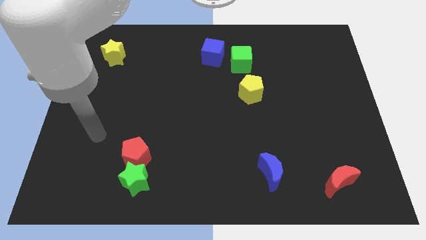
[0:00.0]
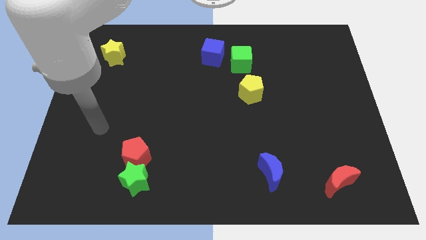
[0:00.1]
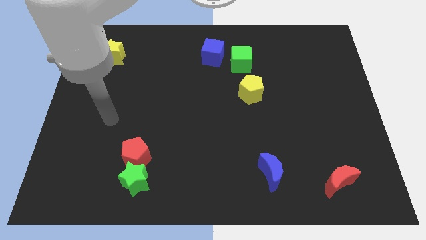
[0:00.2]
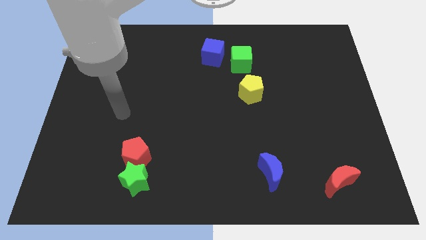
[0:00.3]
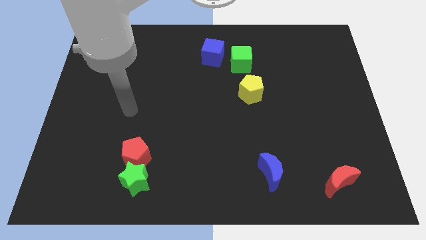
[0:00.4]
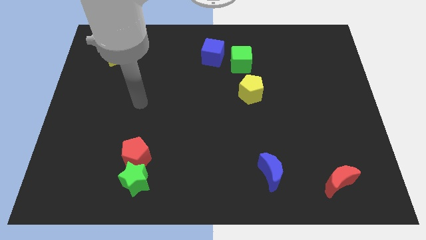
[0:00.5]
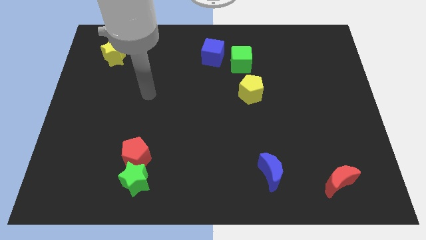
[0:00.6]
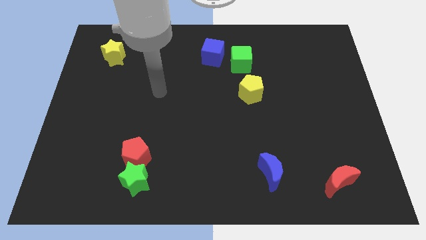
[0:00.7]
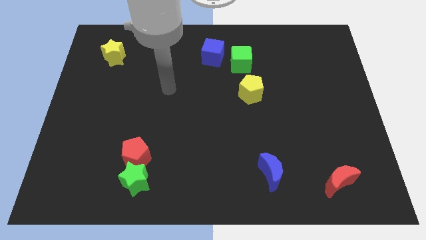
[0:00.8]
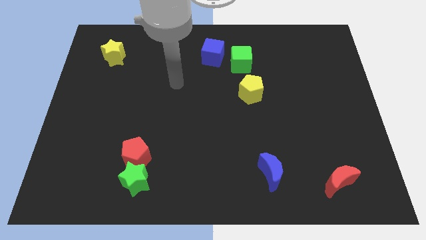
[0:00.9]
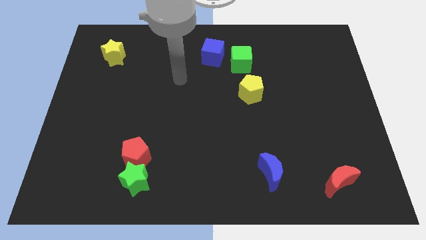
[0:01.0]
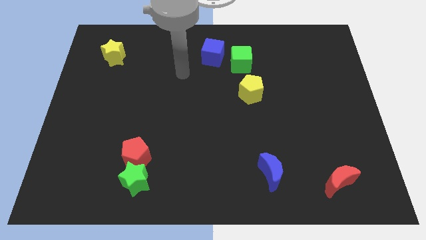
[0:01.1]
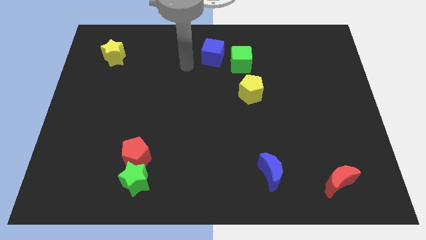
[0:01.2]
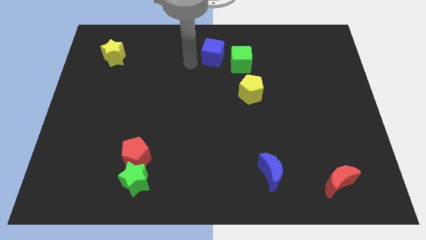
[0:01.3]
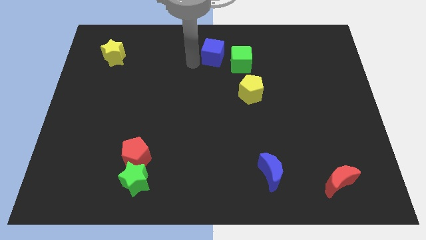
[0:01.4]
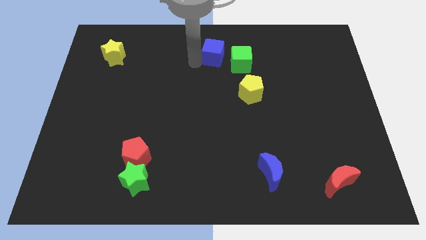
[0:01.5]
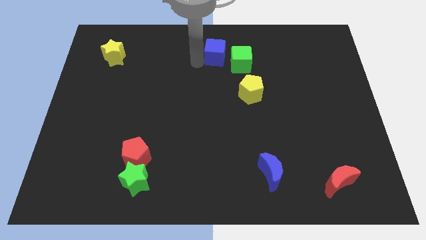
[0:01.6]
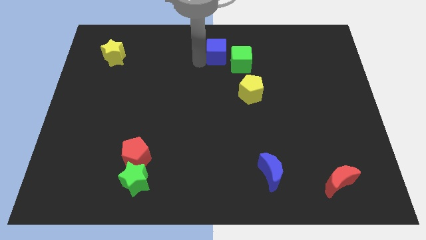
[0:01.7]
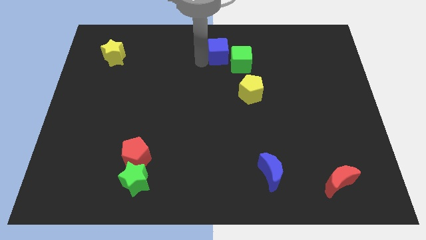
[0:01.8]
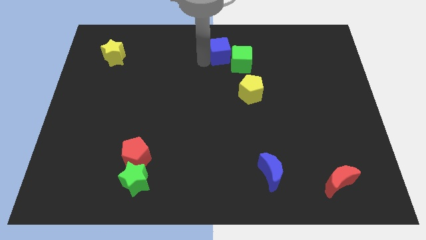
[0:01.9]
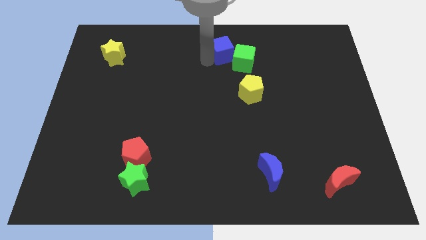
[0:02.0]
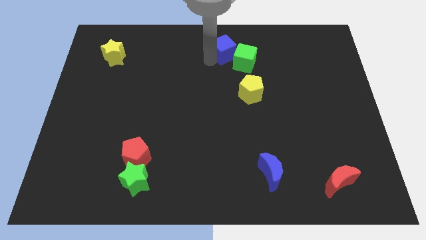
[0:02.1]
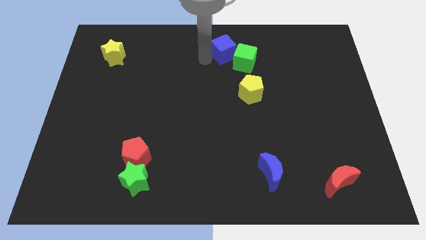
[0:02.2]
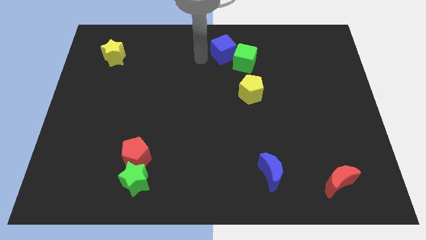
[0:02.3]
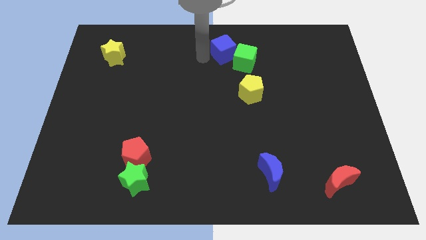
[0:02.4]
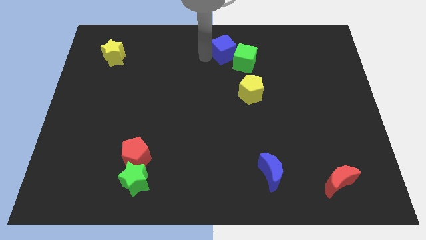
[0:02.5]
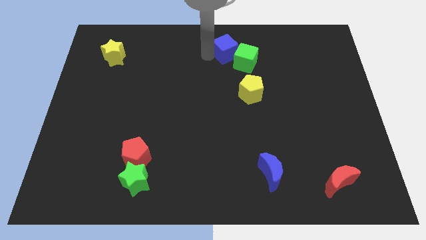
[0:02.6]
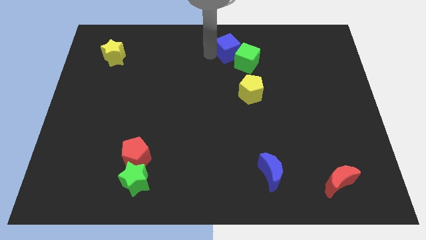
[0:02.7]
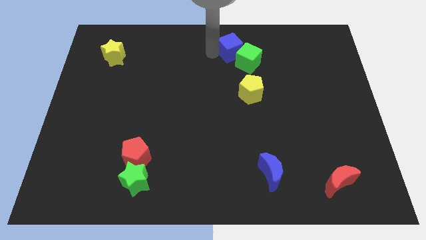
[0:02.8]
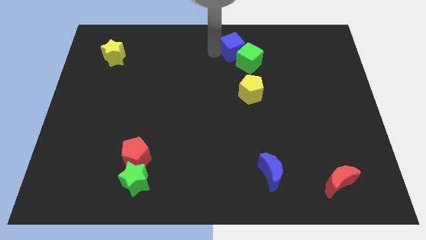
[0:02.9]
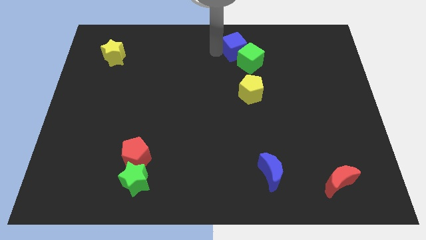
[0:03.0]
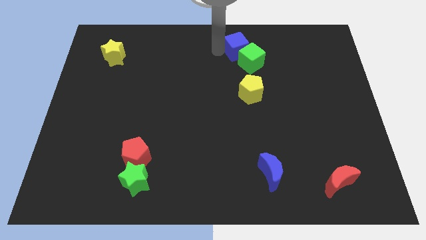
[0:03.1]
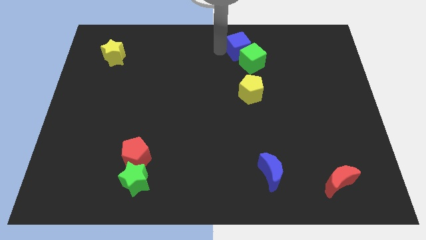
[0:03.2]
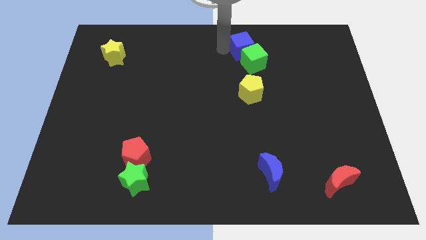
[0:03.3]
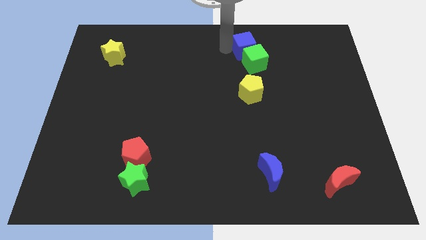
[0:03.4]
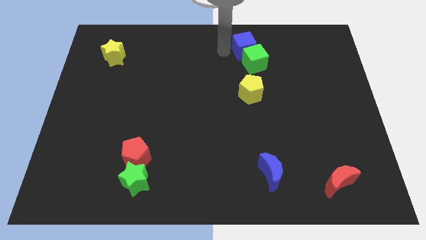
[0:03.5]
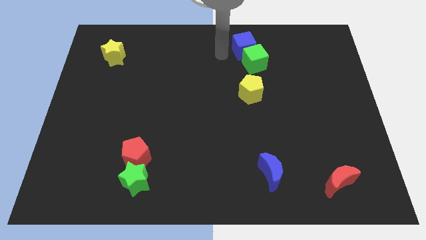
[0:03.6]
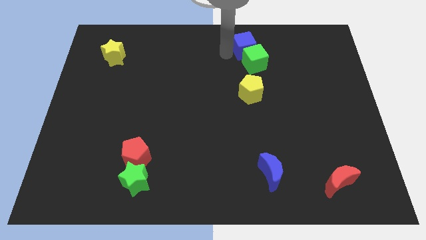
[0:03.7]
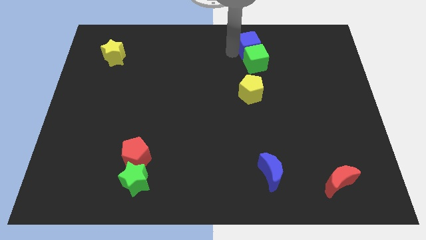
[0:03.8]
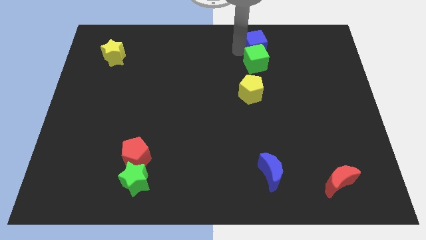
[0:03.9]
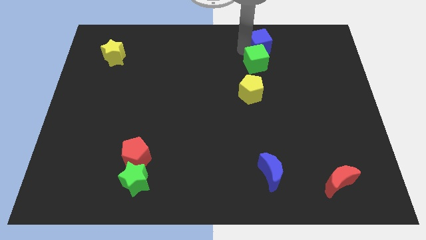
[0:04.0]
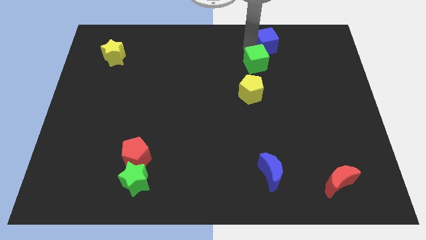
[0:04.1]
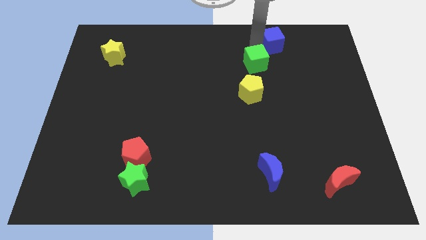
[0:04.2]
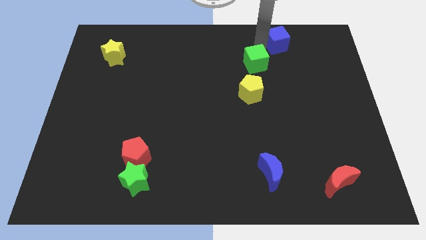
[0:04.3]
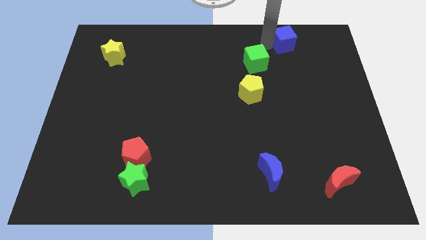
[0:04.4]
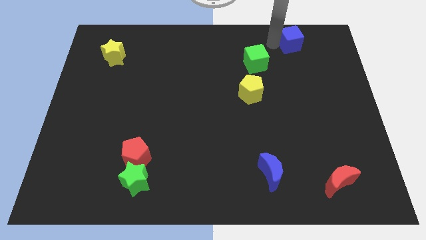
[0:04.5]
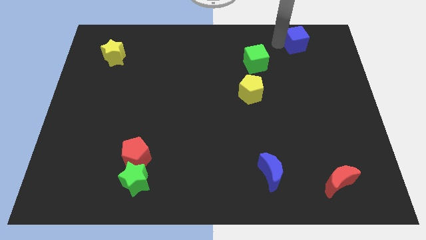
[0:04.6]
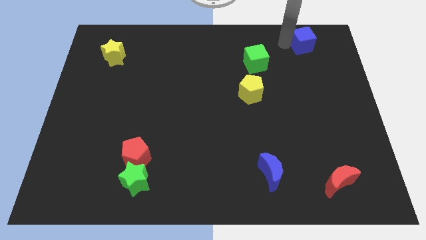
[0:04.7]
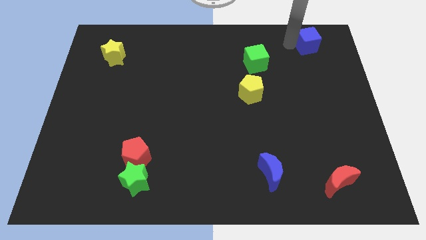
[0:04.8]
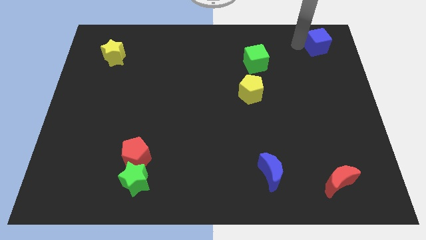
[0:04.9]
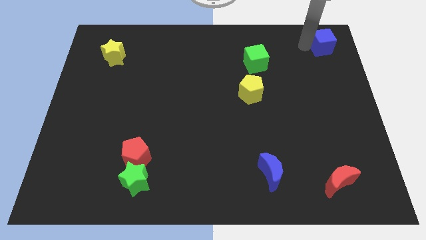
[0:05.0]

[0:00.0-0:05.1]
push the blue cube to the top right corner

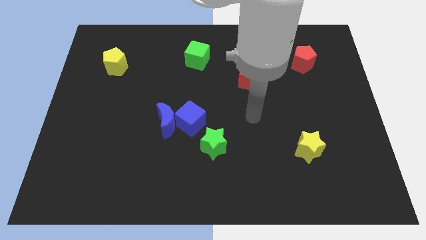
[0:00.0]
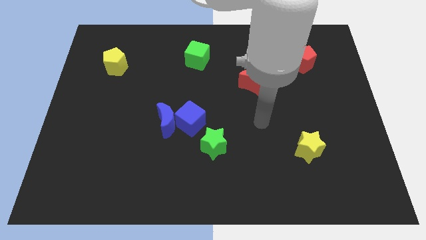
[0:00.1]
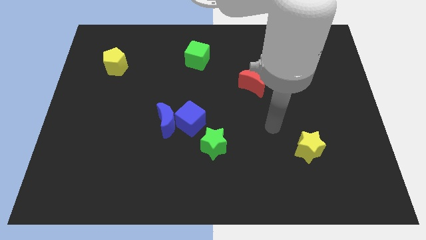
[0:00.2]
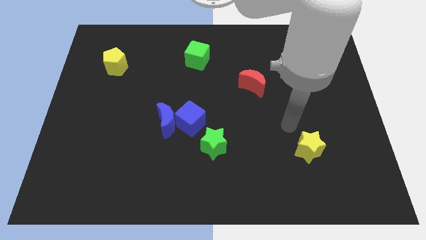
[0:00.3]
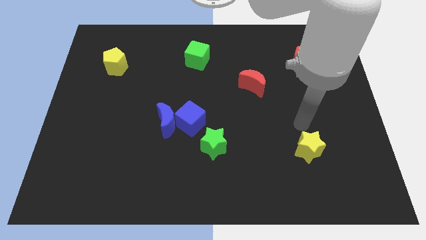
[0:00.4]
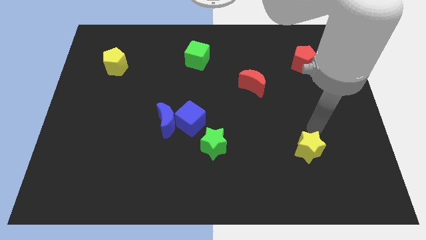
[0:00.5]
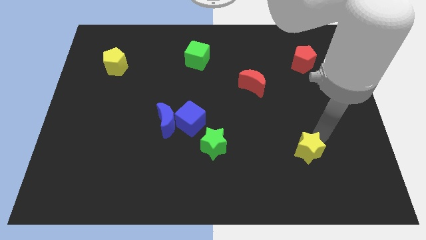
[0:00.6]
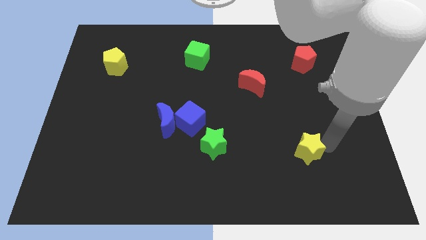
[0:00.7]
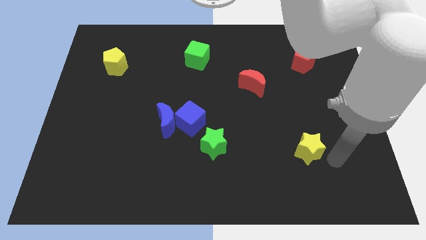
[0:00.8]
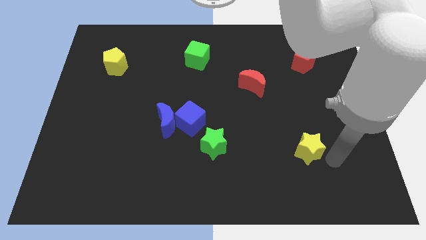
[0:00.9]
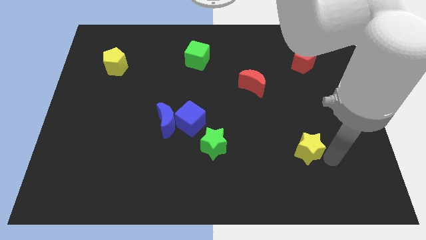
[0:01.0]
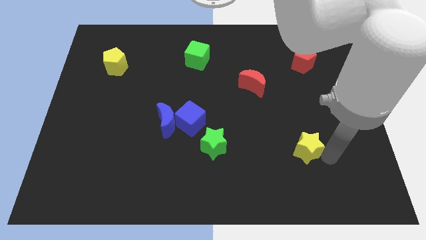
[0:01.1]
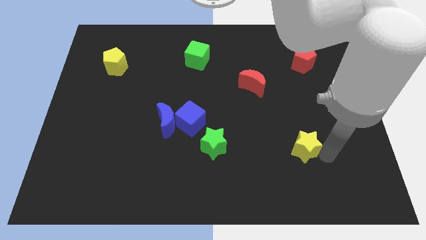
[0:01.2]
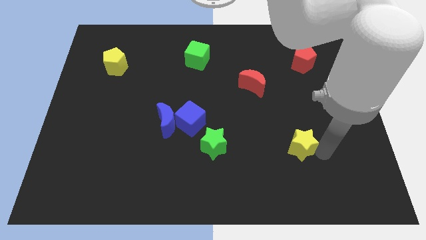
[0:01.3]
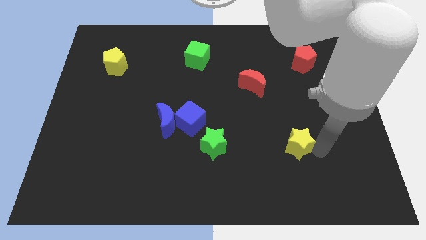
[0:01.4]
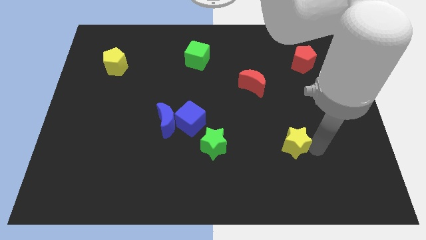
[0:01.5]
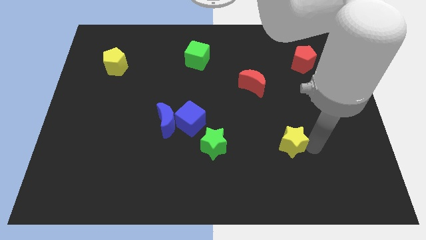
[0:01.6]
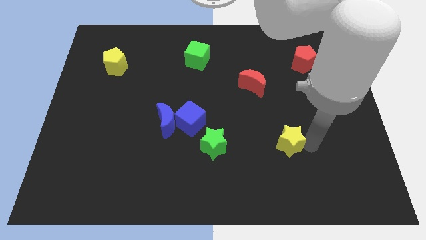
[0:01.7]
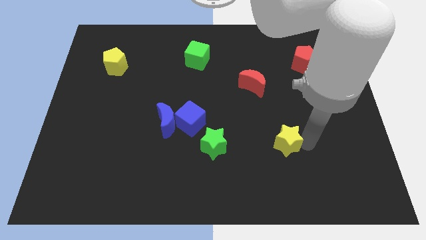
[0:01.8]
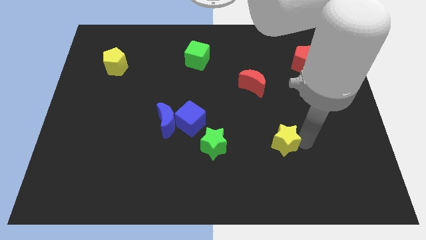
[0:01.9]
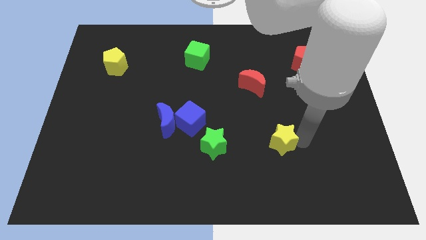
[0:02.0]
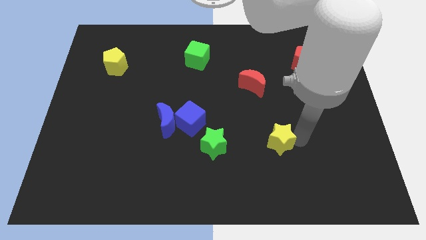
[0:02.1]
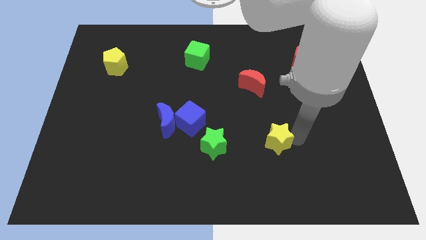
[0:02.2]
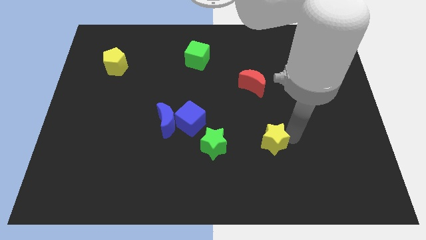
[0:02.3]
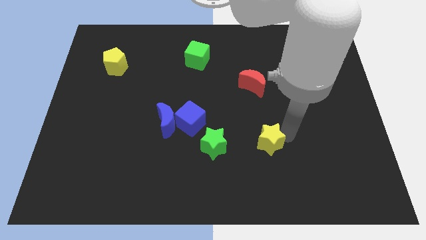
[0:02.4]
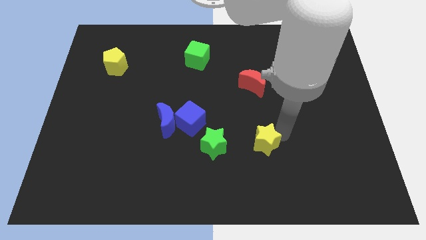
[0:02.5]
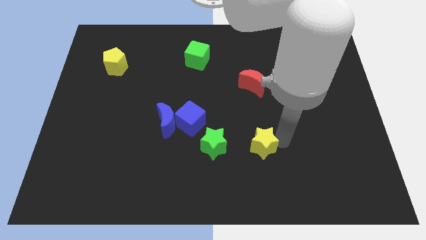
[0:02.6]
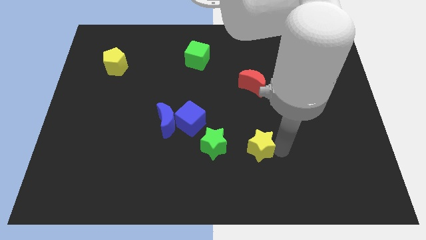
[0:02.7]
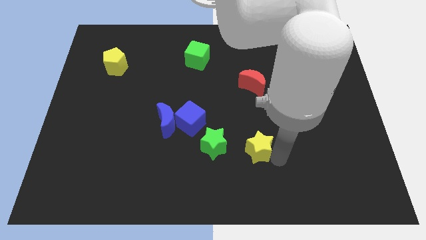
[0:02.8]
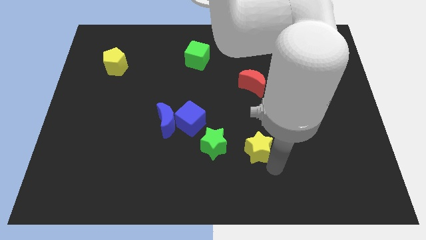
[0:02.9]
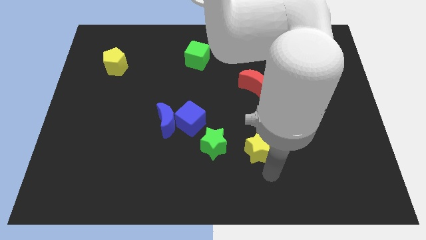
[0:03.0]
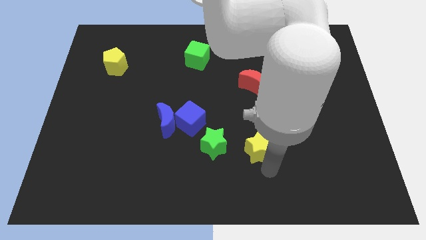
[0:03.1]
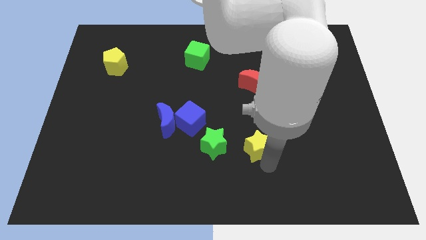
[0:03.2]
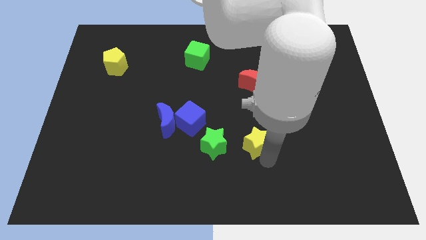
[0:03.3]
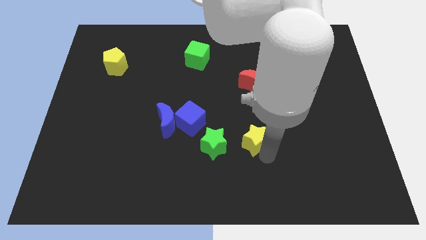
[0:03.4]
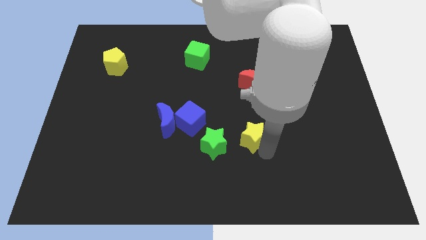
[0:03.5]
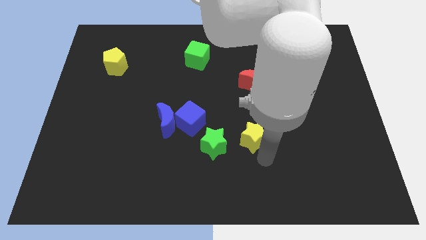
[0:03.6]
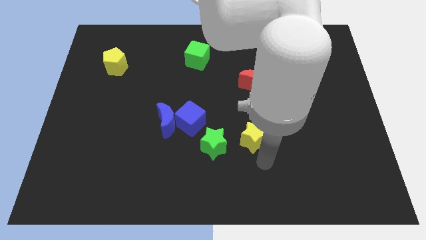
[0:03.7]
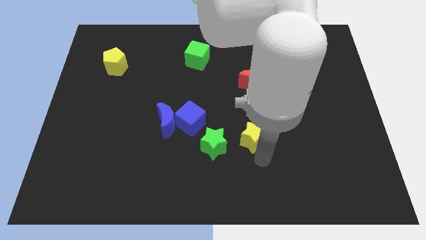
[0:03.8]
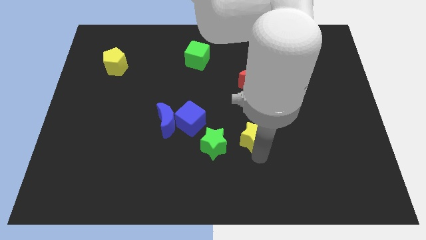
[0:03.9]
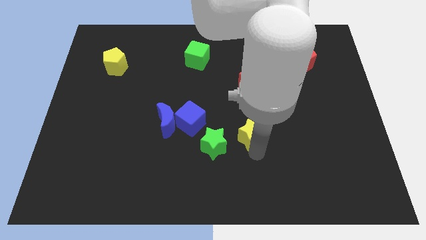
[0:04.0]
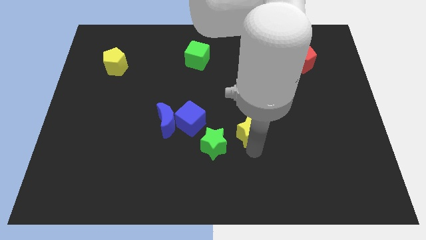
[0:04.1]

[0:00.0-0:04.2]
put the yellow star to the center of the board
